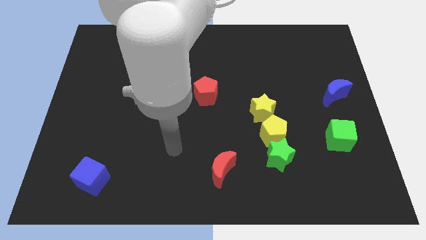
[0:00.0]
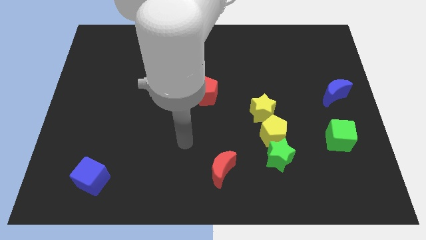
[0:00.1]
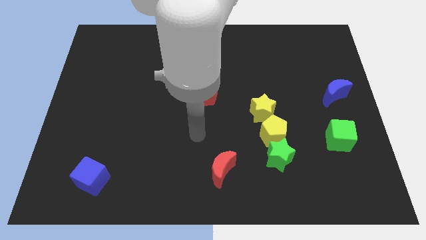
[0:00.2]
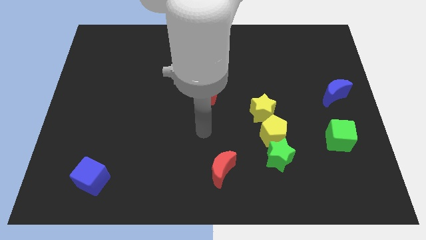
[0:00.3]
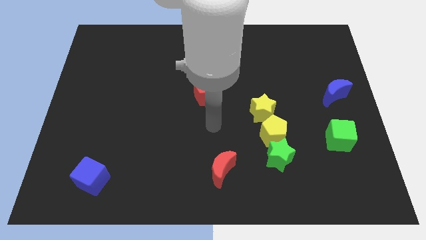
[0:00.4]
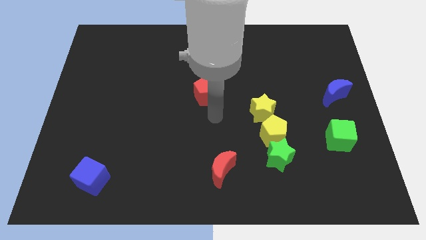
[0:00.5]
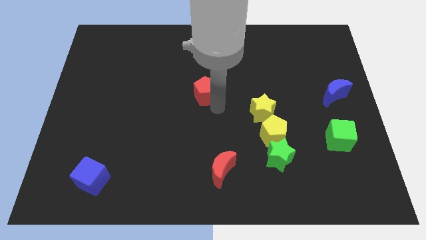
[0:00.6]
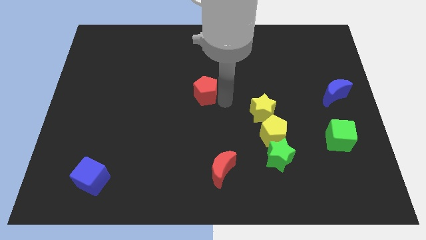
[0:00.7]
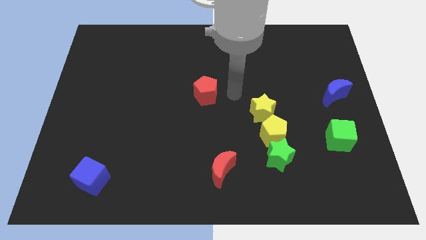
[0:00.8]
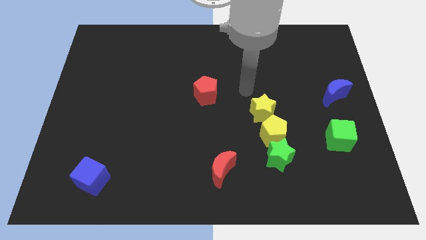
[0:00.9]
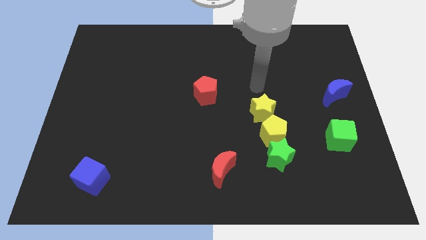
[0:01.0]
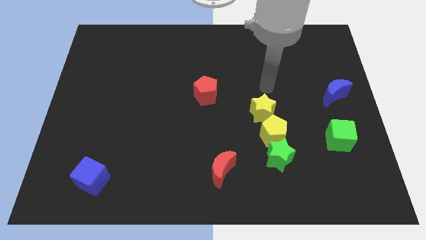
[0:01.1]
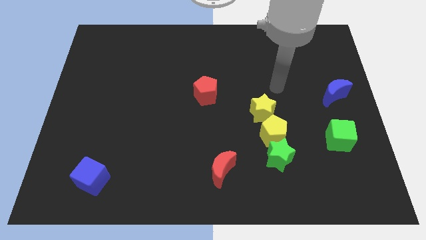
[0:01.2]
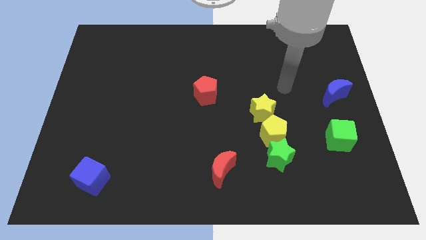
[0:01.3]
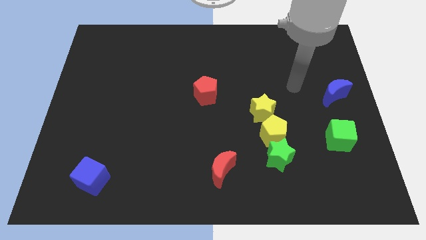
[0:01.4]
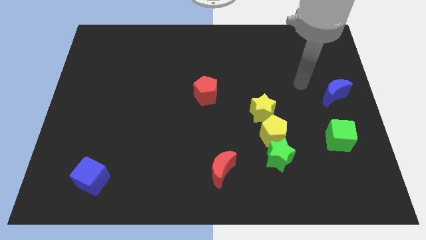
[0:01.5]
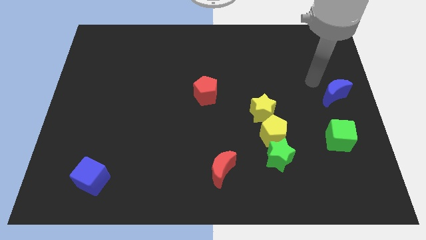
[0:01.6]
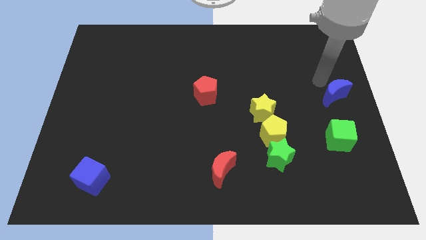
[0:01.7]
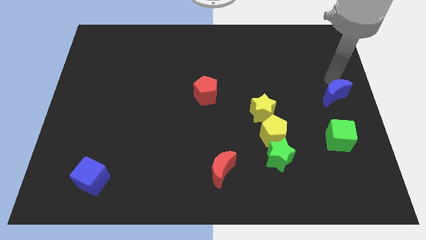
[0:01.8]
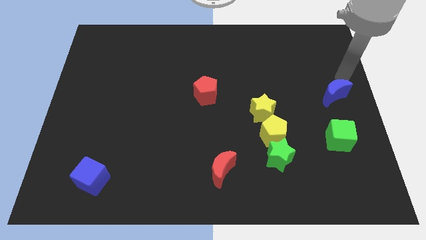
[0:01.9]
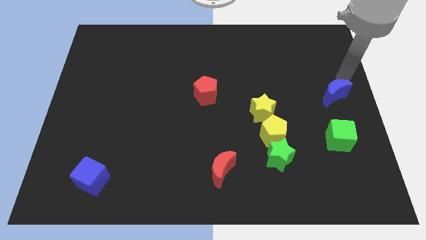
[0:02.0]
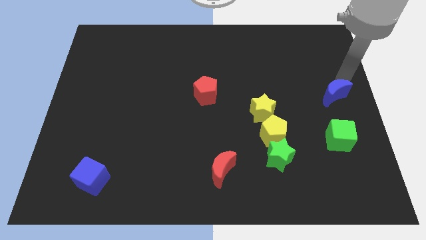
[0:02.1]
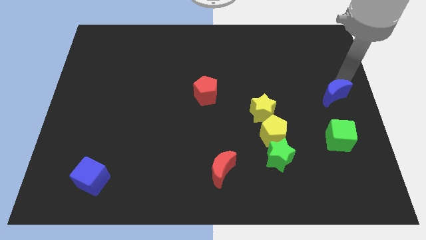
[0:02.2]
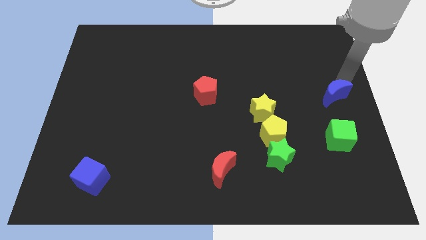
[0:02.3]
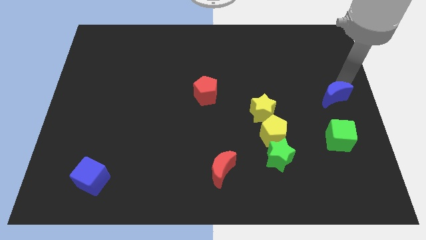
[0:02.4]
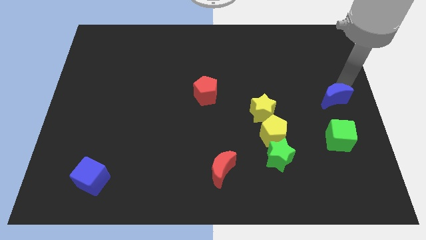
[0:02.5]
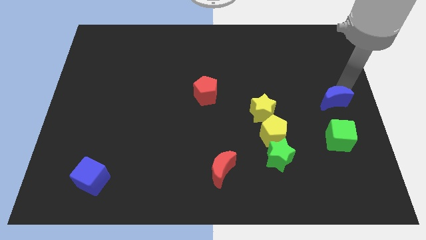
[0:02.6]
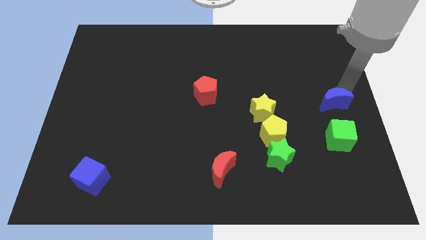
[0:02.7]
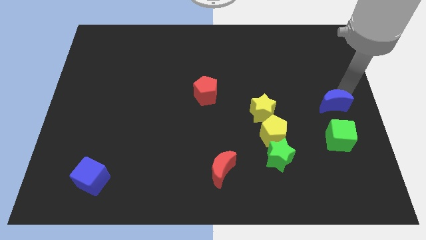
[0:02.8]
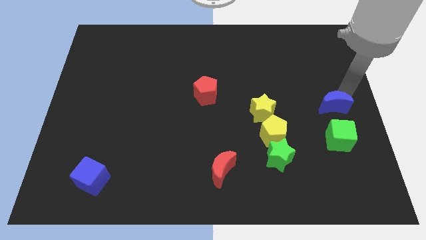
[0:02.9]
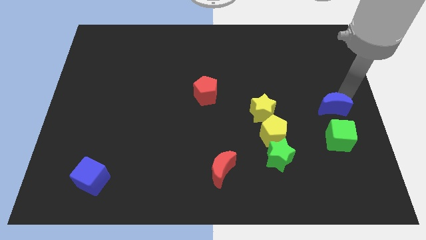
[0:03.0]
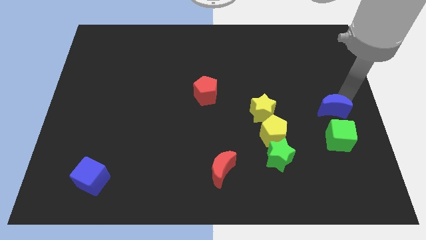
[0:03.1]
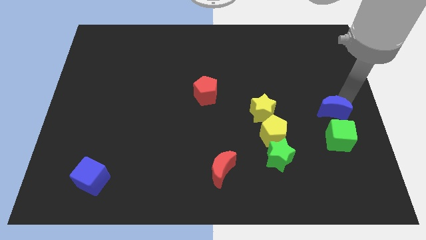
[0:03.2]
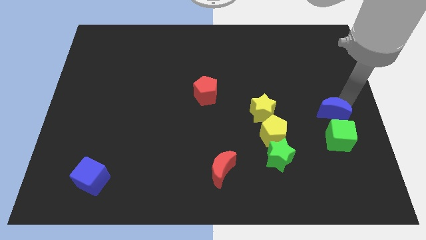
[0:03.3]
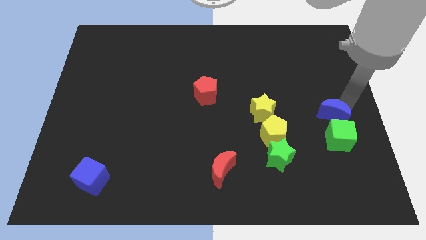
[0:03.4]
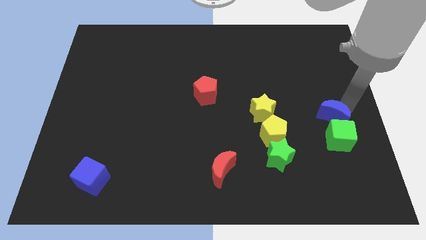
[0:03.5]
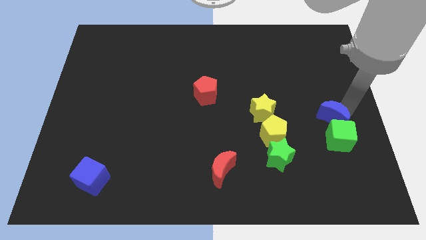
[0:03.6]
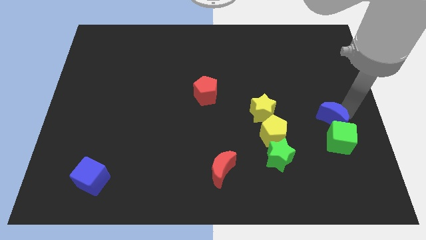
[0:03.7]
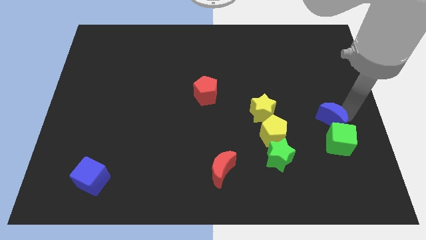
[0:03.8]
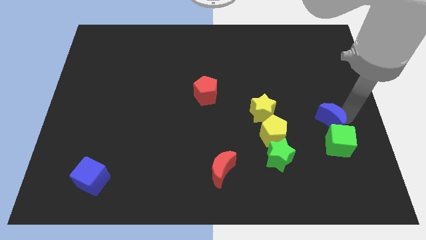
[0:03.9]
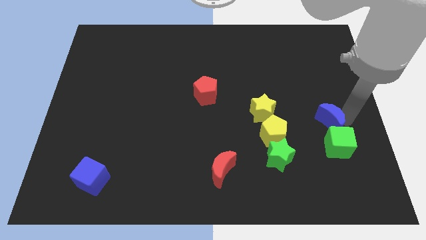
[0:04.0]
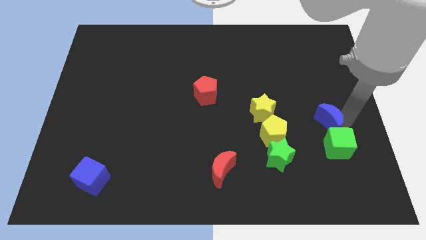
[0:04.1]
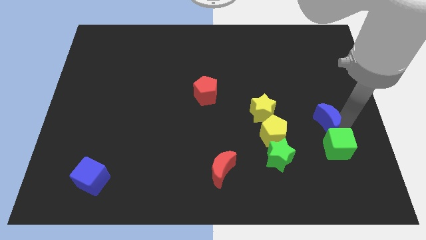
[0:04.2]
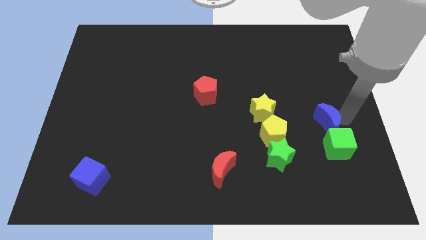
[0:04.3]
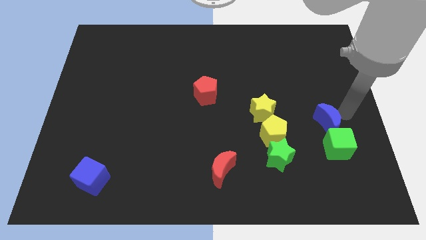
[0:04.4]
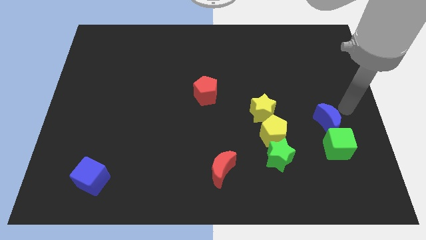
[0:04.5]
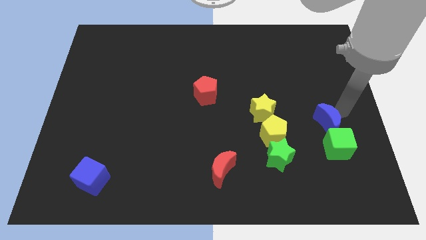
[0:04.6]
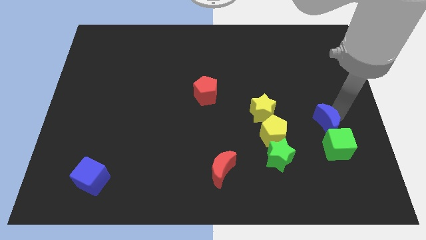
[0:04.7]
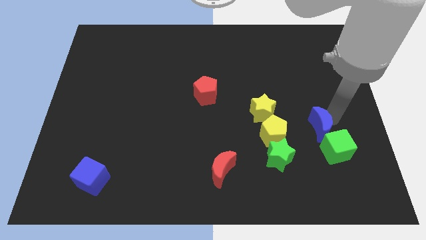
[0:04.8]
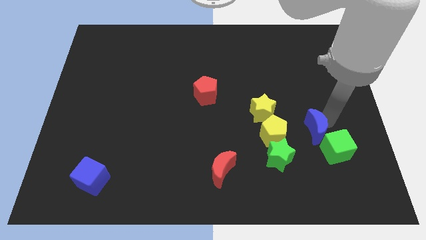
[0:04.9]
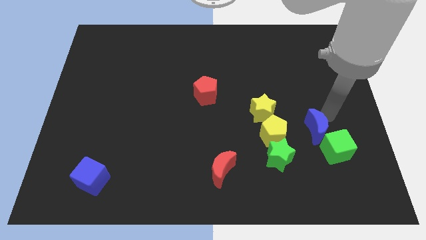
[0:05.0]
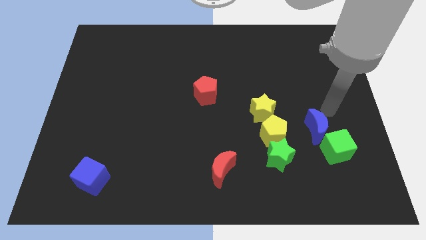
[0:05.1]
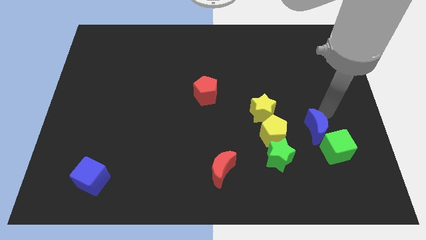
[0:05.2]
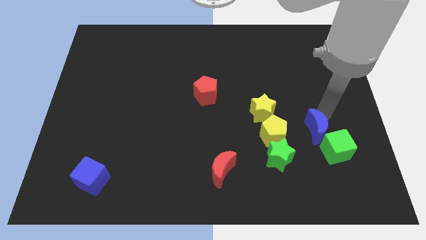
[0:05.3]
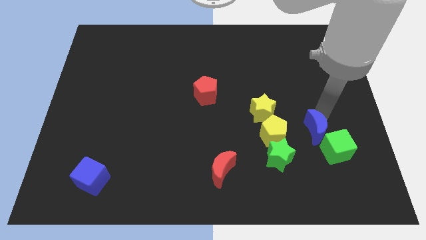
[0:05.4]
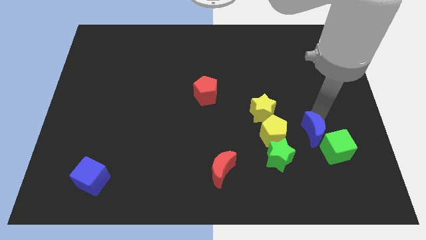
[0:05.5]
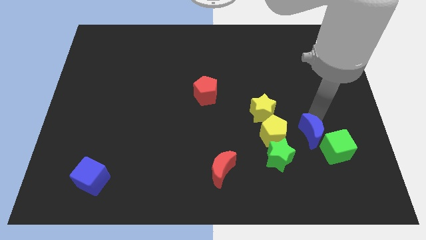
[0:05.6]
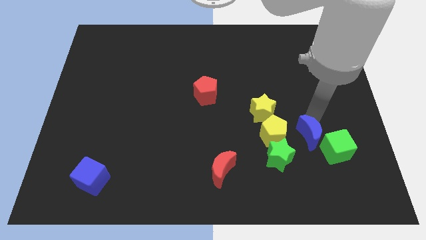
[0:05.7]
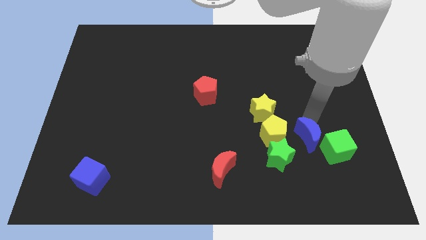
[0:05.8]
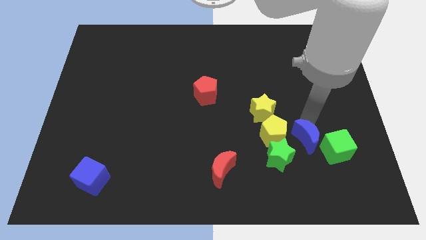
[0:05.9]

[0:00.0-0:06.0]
push the blue moon to the bottom right of the yellow pentagon

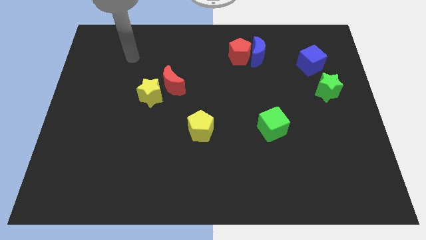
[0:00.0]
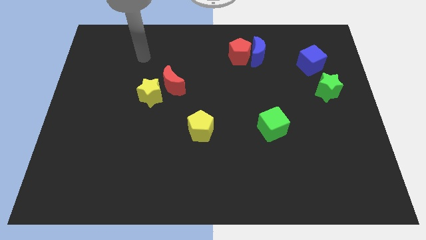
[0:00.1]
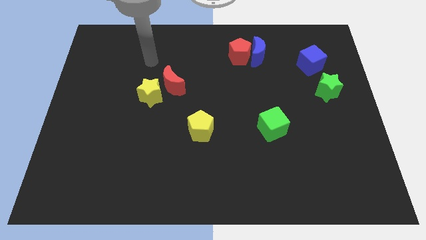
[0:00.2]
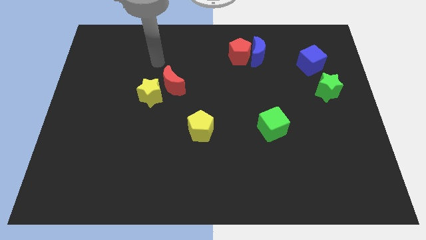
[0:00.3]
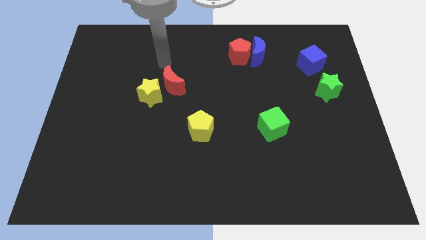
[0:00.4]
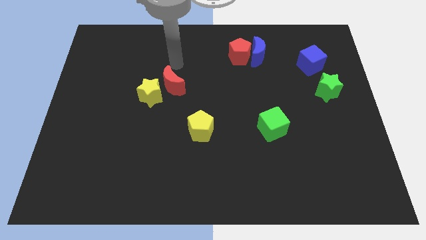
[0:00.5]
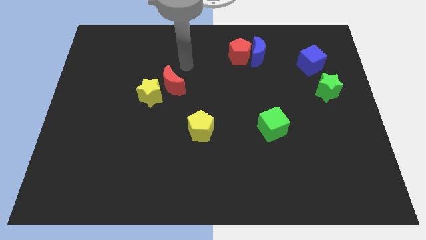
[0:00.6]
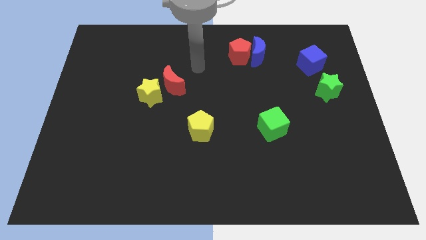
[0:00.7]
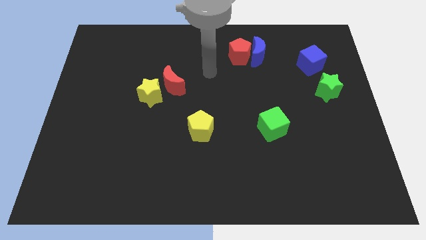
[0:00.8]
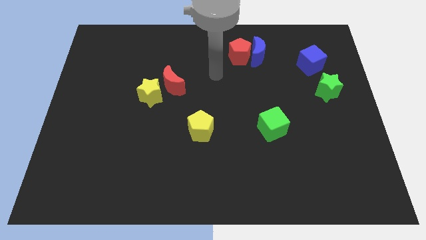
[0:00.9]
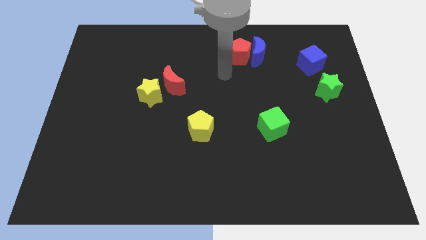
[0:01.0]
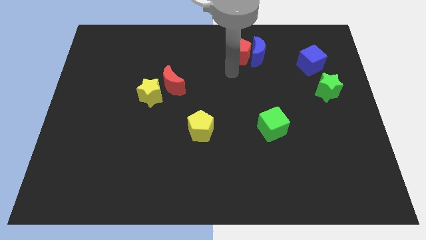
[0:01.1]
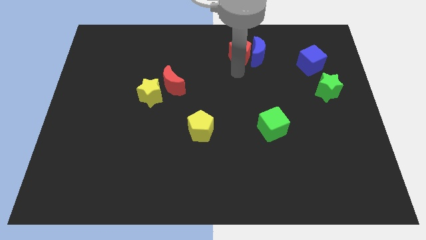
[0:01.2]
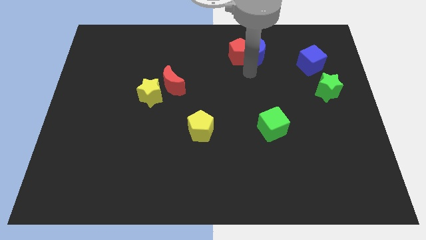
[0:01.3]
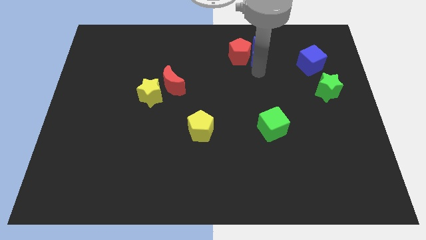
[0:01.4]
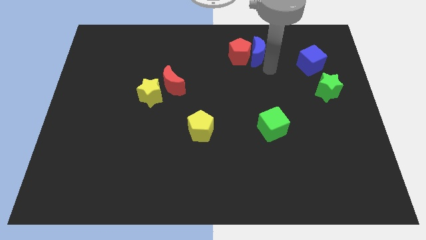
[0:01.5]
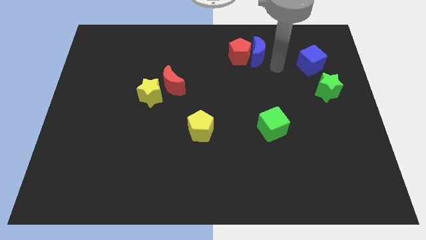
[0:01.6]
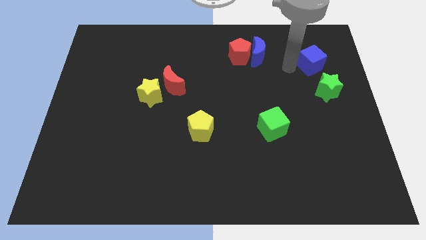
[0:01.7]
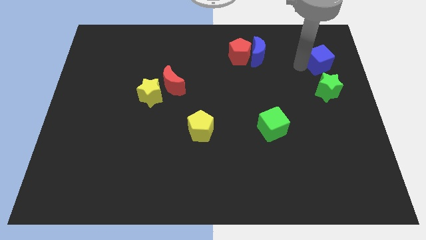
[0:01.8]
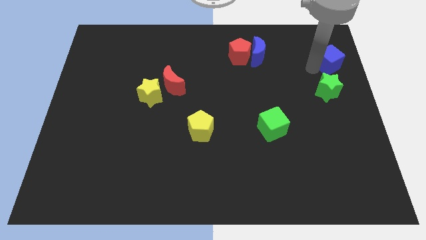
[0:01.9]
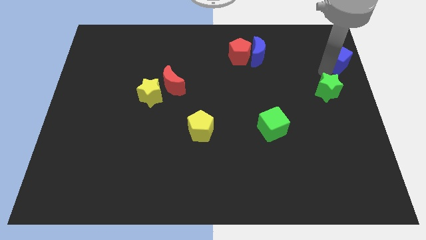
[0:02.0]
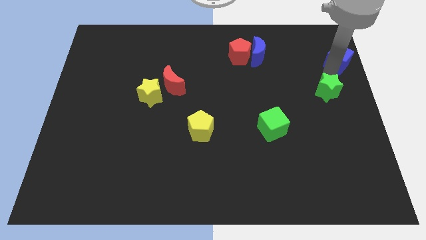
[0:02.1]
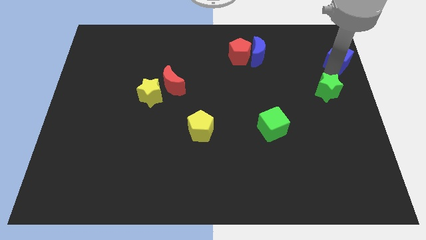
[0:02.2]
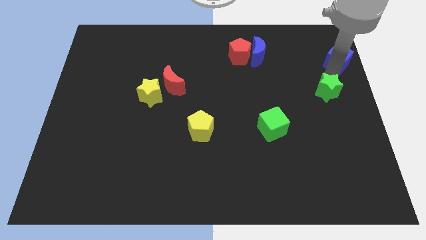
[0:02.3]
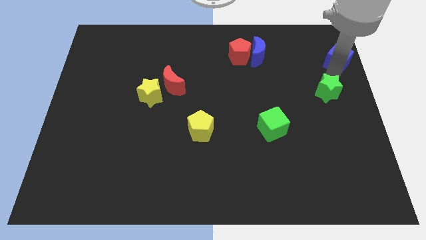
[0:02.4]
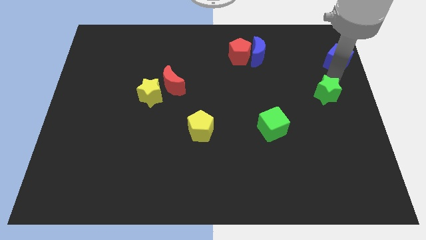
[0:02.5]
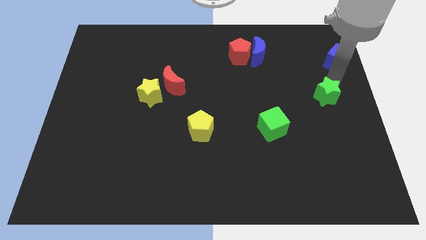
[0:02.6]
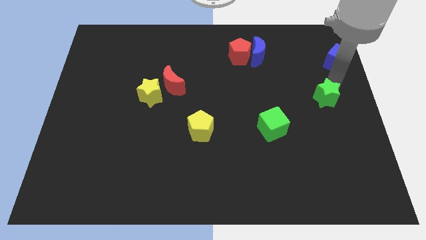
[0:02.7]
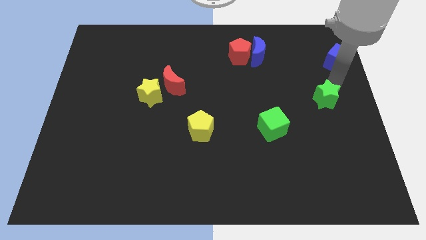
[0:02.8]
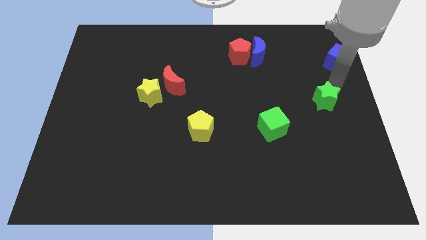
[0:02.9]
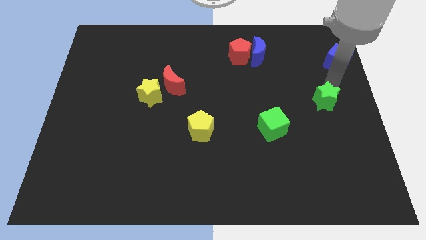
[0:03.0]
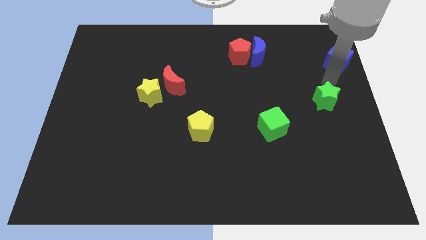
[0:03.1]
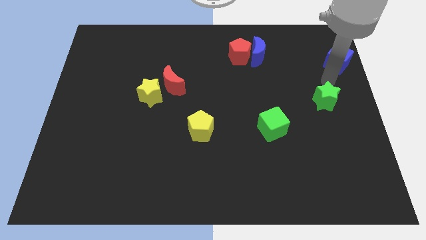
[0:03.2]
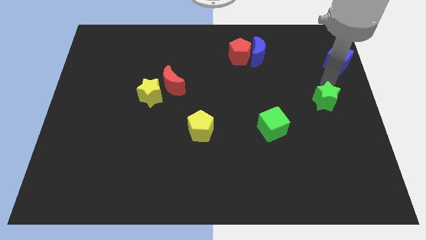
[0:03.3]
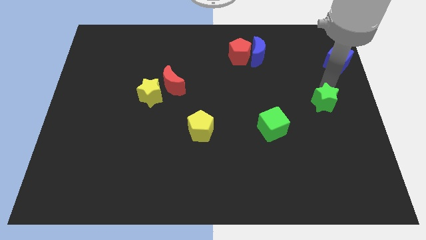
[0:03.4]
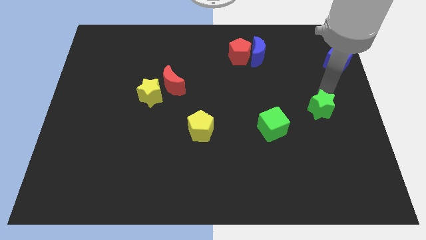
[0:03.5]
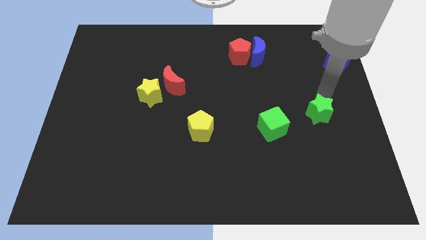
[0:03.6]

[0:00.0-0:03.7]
push the green star to the right of the green cube
